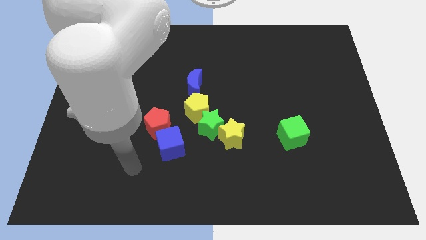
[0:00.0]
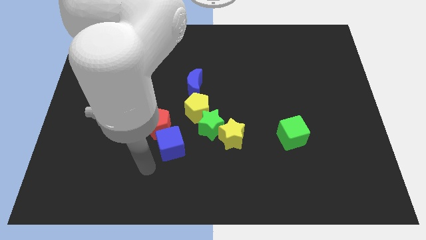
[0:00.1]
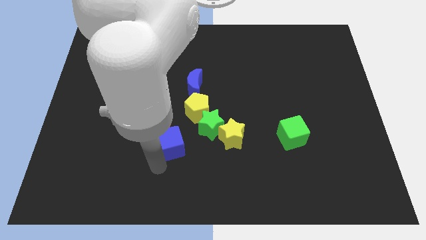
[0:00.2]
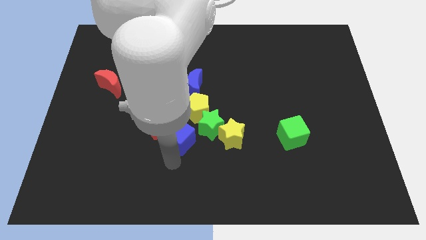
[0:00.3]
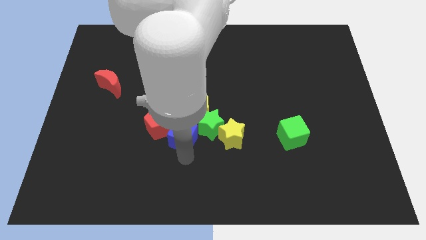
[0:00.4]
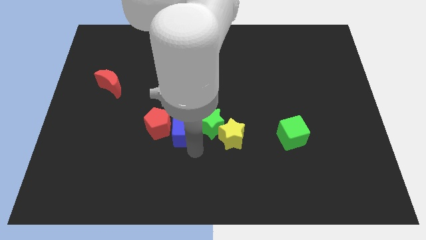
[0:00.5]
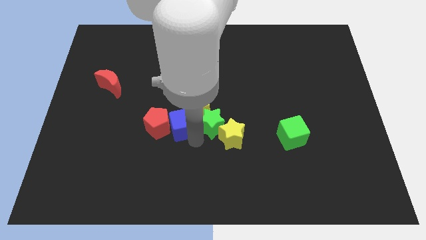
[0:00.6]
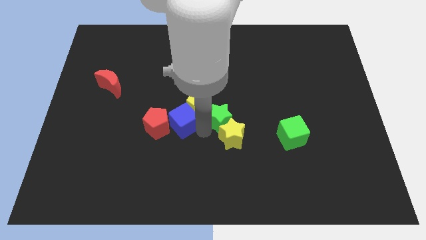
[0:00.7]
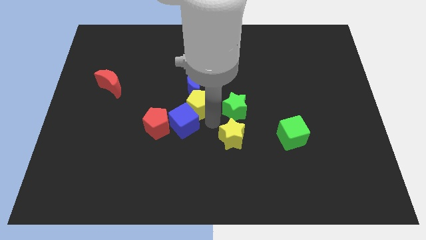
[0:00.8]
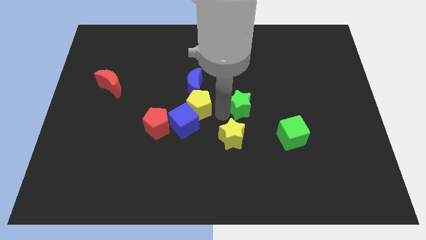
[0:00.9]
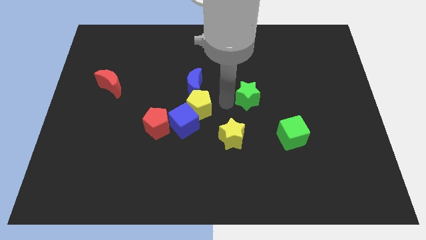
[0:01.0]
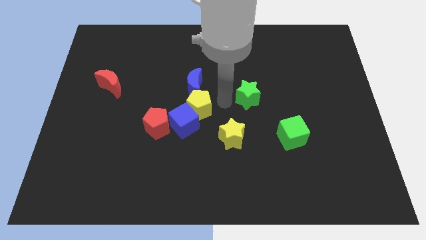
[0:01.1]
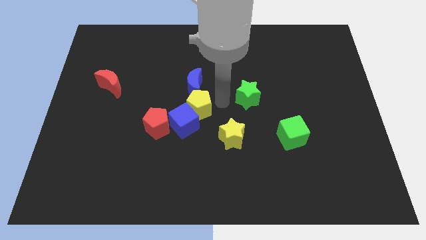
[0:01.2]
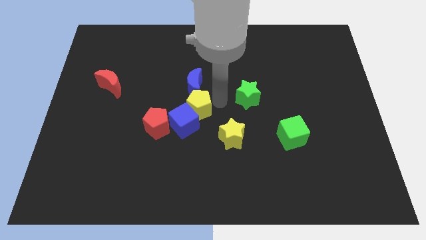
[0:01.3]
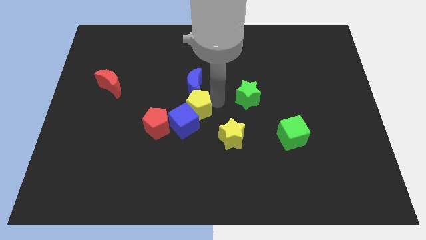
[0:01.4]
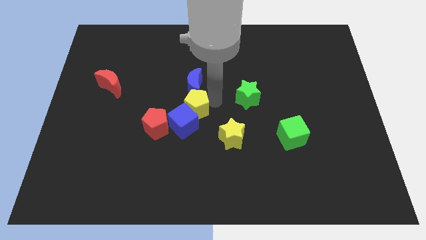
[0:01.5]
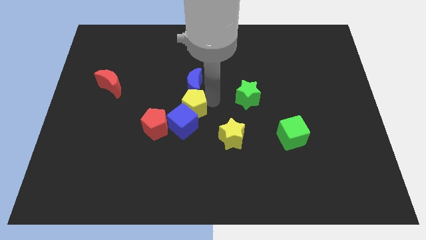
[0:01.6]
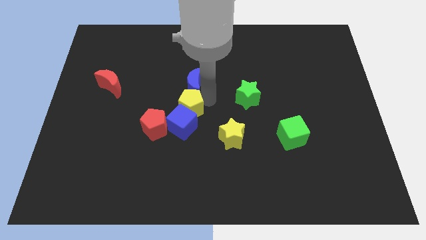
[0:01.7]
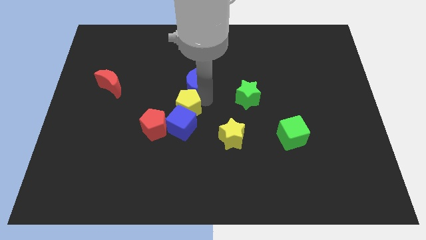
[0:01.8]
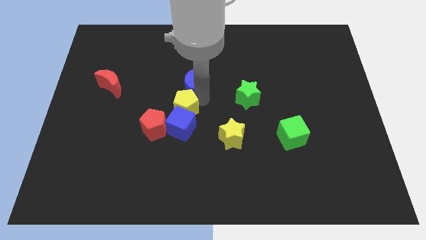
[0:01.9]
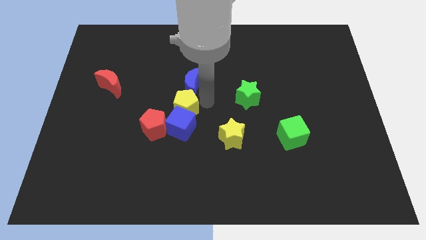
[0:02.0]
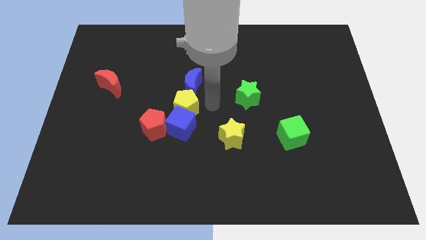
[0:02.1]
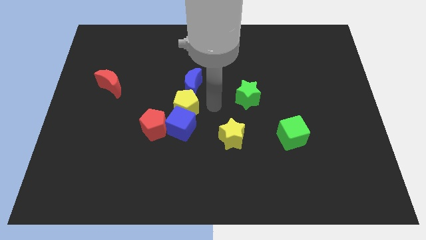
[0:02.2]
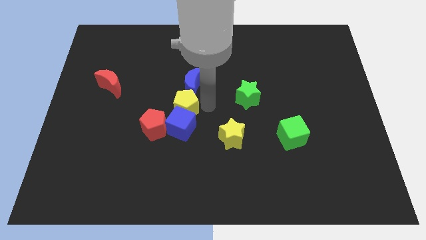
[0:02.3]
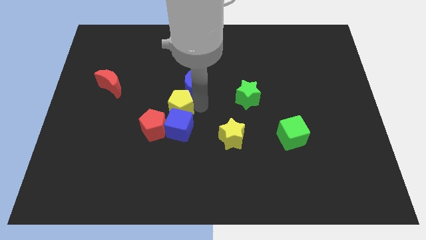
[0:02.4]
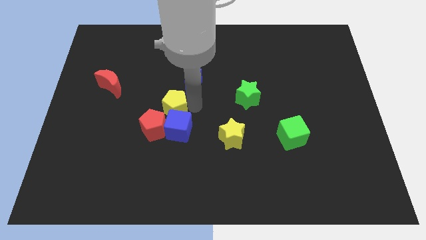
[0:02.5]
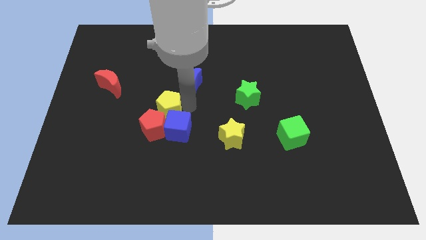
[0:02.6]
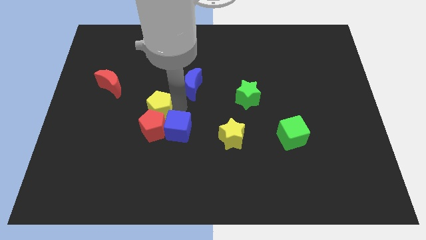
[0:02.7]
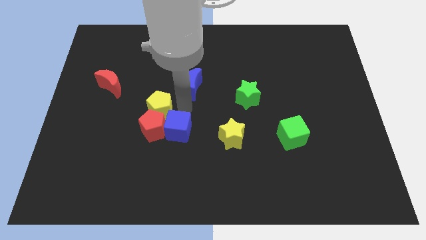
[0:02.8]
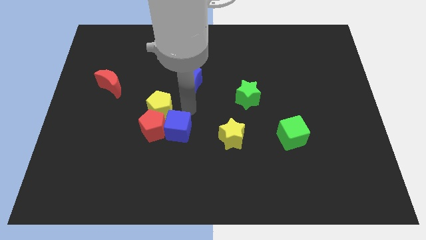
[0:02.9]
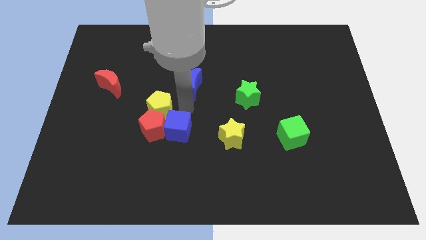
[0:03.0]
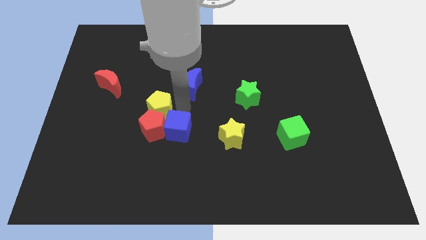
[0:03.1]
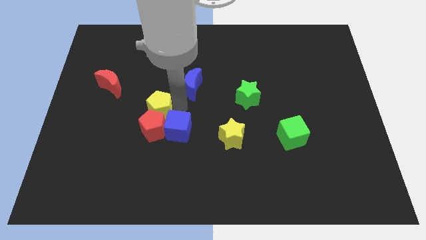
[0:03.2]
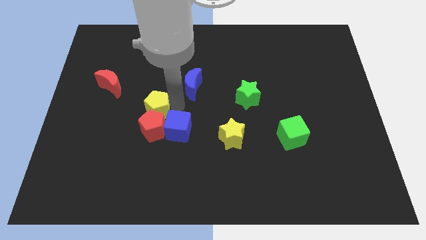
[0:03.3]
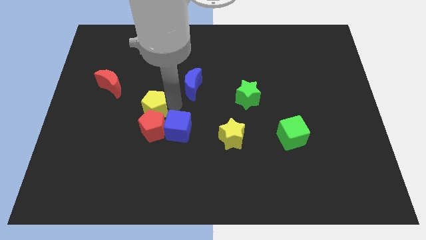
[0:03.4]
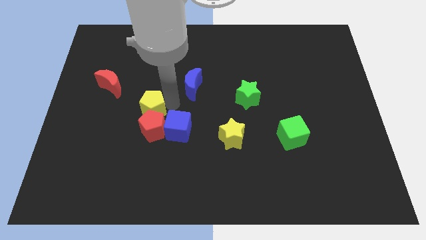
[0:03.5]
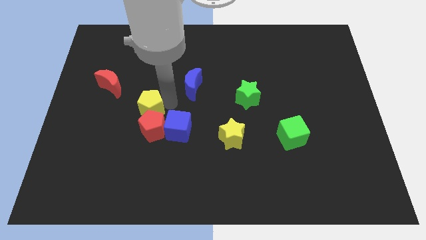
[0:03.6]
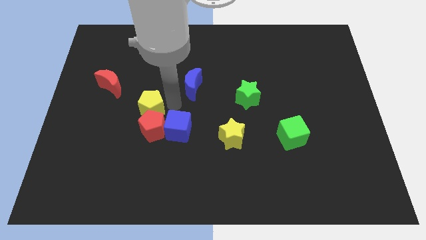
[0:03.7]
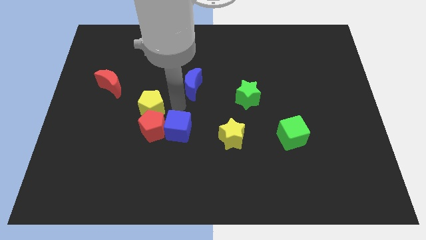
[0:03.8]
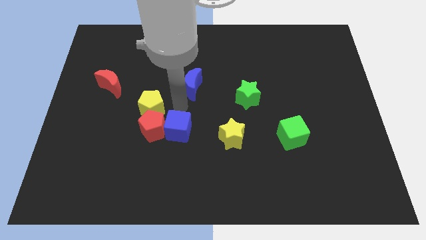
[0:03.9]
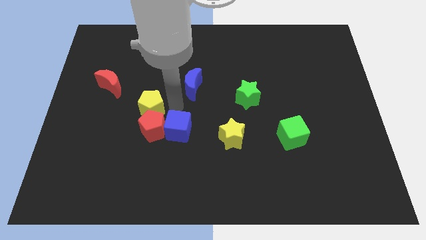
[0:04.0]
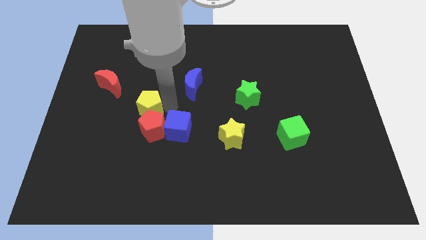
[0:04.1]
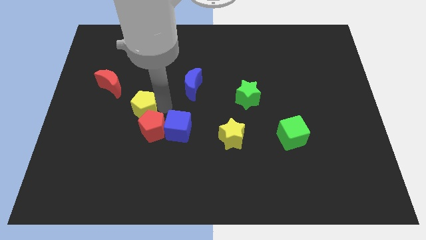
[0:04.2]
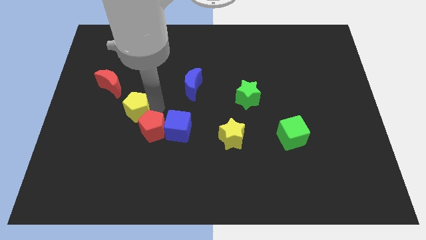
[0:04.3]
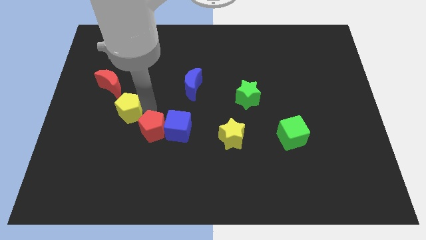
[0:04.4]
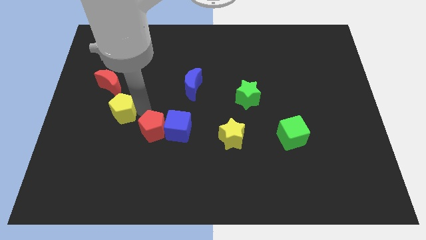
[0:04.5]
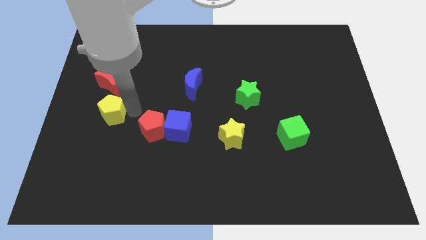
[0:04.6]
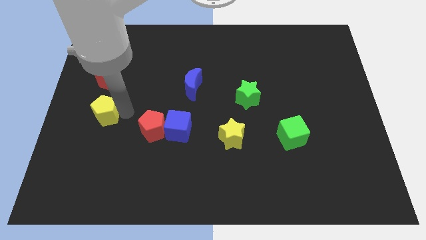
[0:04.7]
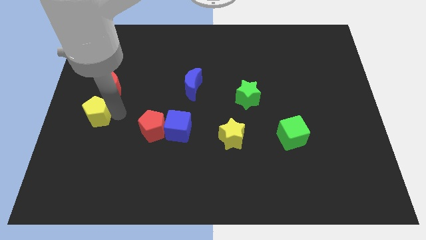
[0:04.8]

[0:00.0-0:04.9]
put the yellow pentagon to the left side of the board
